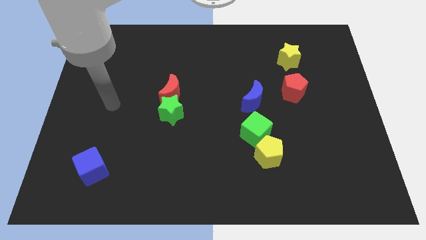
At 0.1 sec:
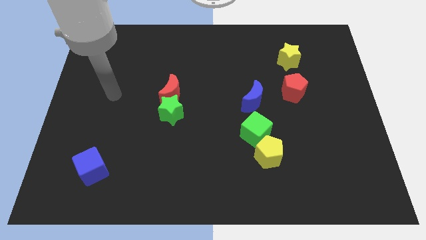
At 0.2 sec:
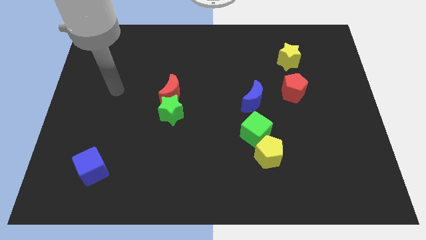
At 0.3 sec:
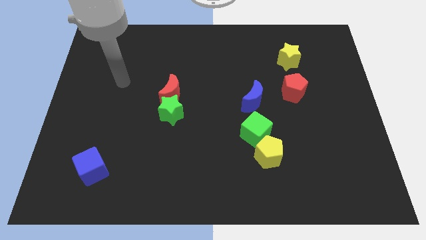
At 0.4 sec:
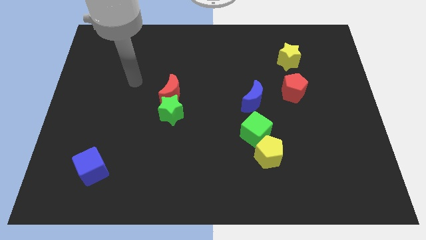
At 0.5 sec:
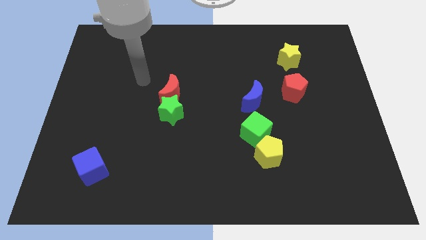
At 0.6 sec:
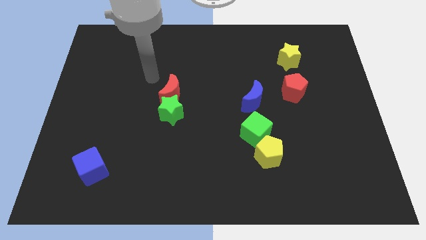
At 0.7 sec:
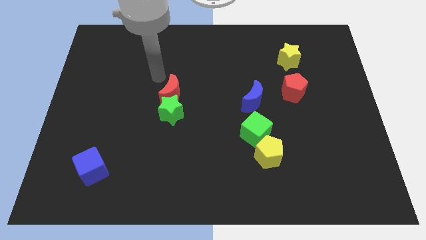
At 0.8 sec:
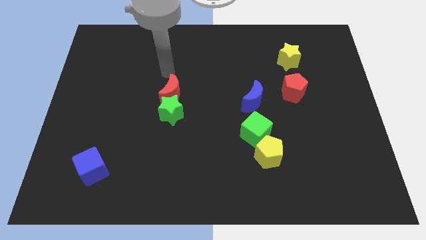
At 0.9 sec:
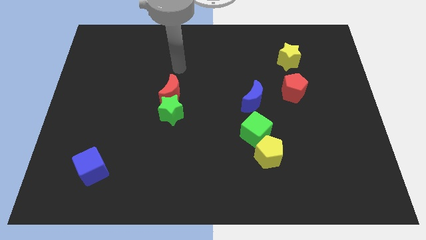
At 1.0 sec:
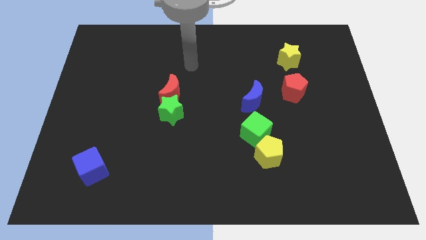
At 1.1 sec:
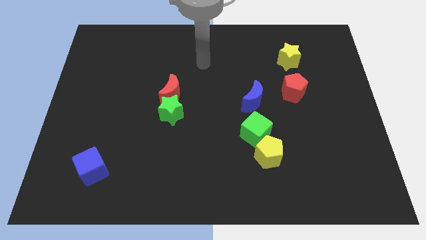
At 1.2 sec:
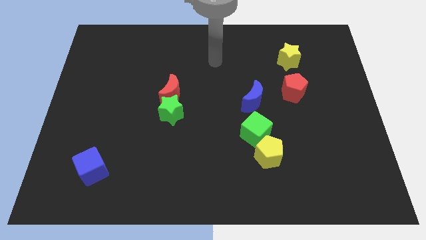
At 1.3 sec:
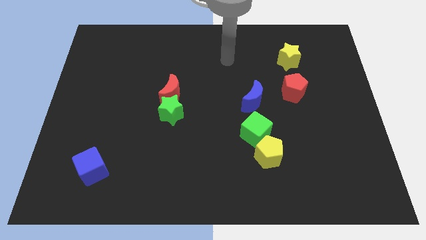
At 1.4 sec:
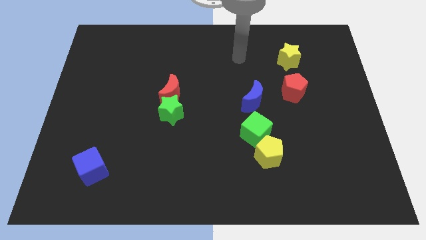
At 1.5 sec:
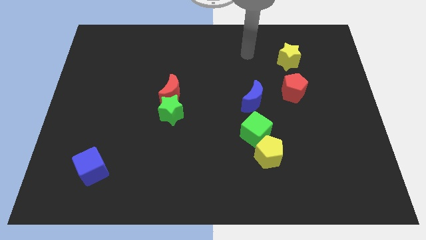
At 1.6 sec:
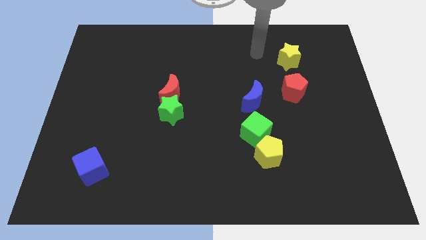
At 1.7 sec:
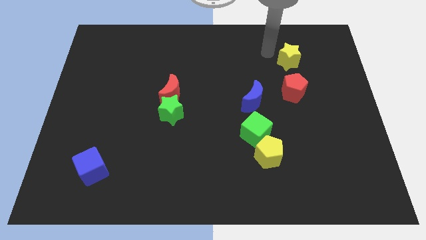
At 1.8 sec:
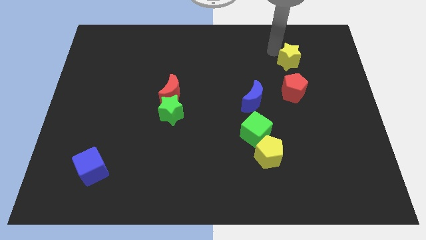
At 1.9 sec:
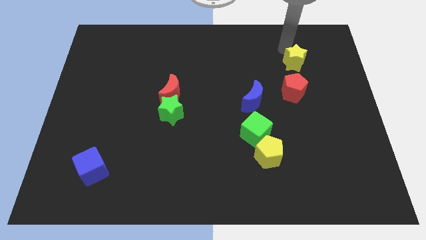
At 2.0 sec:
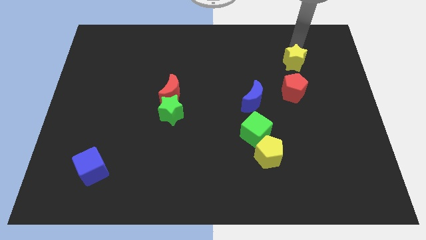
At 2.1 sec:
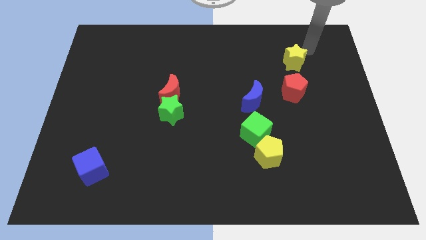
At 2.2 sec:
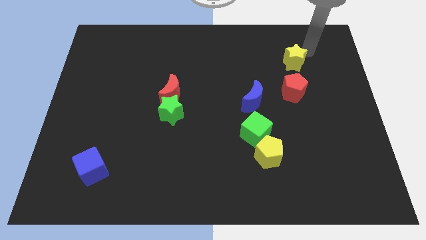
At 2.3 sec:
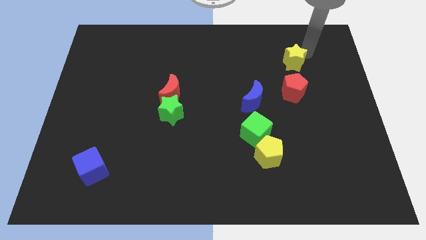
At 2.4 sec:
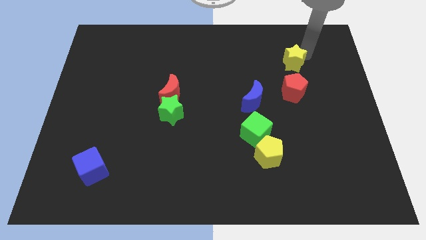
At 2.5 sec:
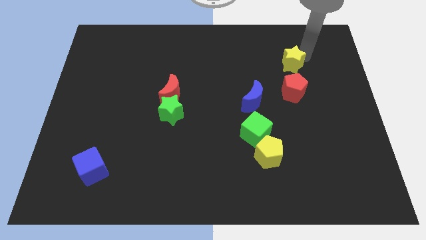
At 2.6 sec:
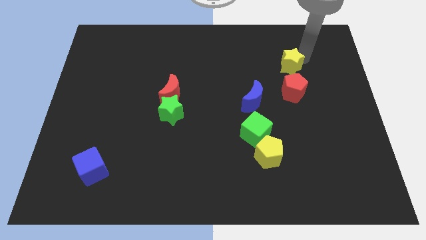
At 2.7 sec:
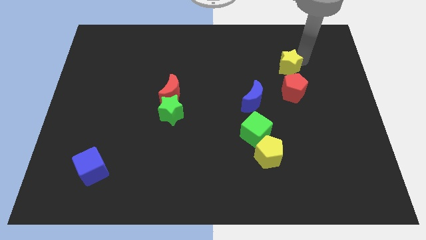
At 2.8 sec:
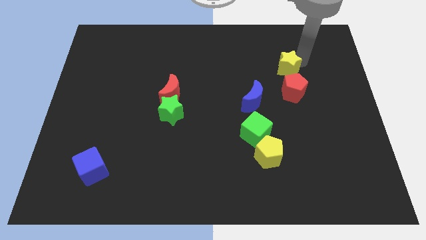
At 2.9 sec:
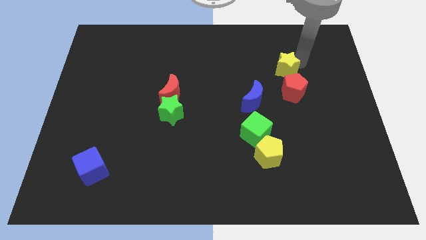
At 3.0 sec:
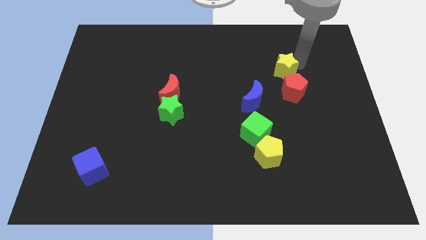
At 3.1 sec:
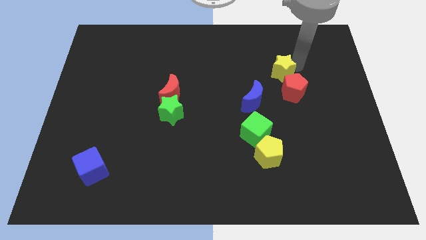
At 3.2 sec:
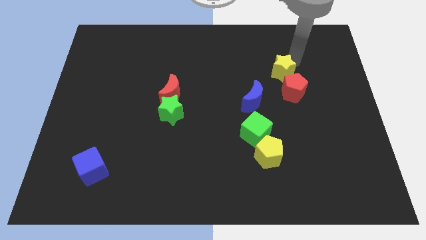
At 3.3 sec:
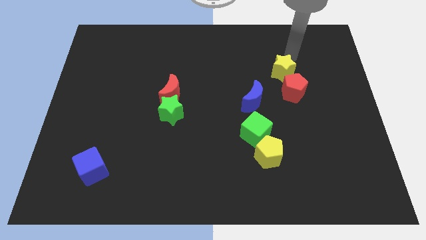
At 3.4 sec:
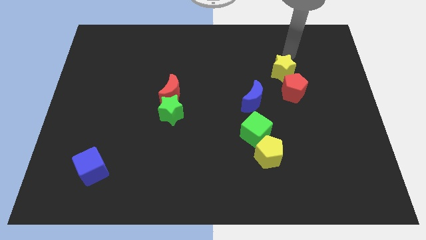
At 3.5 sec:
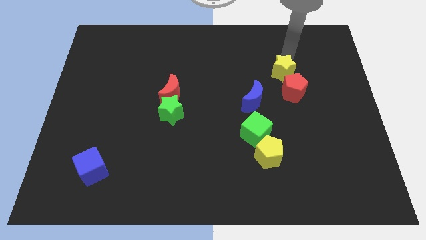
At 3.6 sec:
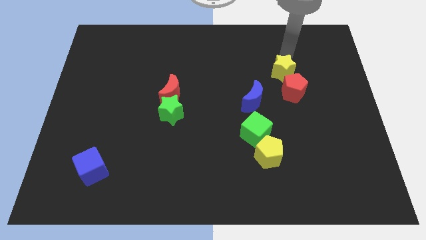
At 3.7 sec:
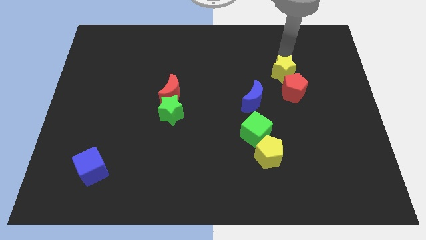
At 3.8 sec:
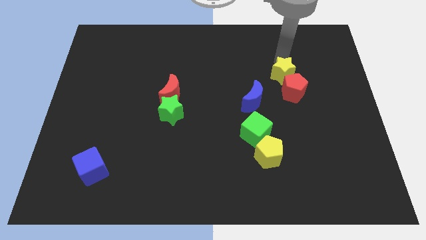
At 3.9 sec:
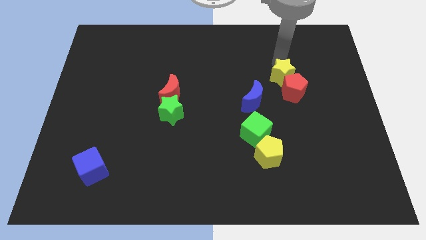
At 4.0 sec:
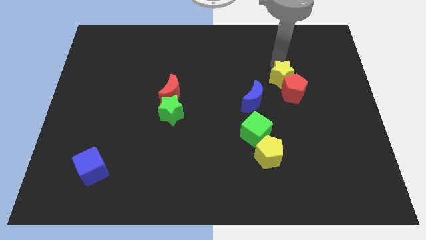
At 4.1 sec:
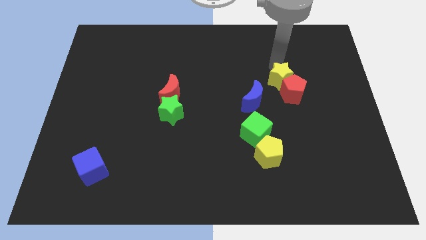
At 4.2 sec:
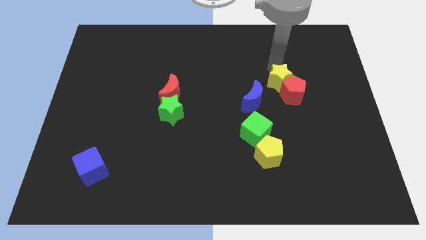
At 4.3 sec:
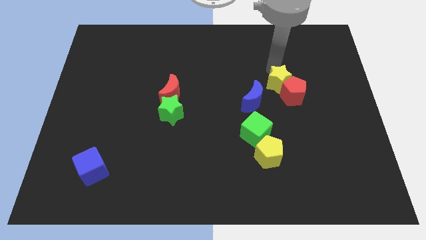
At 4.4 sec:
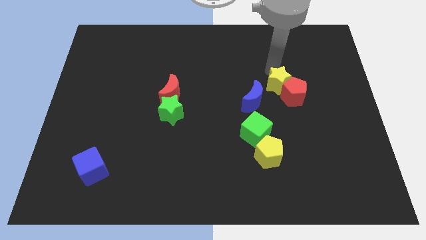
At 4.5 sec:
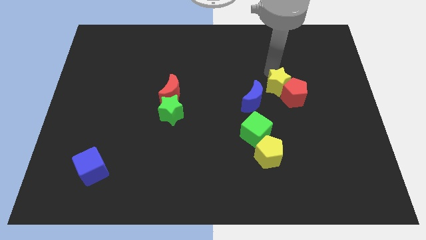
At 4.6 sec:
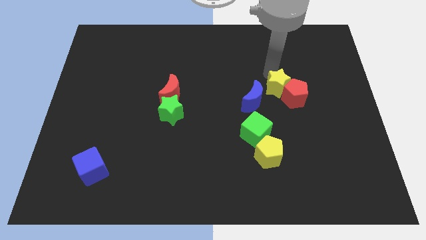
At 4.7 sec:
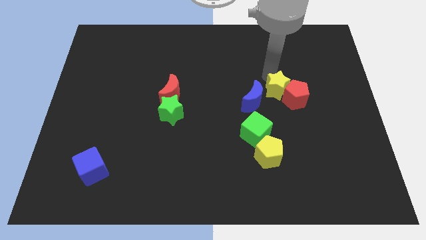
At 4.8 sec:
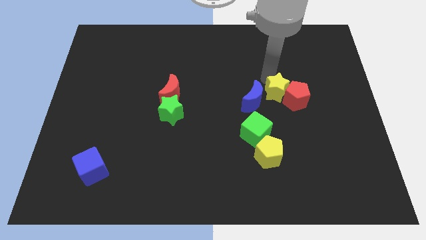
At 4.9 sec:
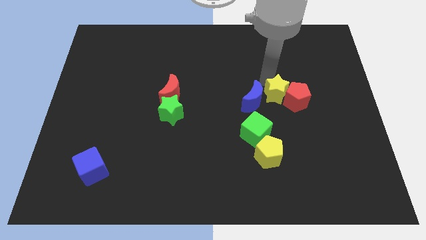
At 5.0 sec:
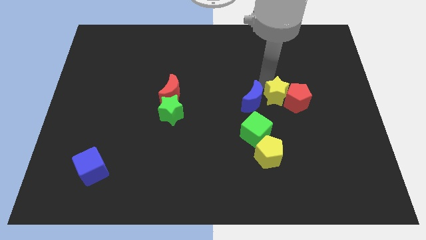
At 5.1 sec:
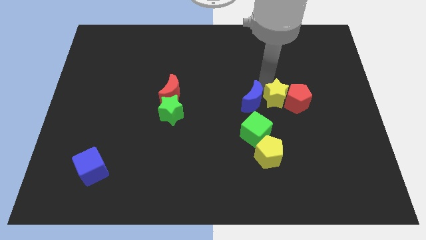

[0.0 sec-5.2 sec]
push the yellow star to the top right of the green cube

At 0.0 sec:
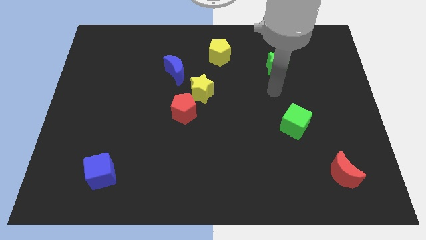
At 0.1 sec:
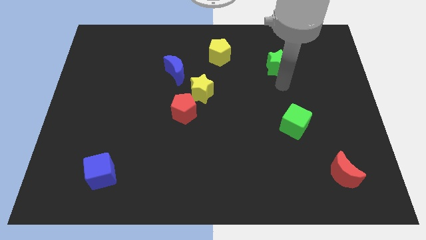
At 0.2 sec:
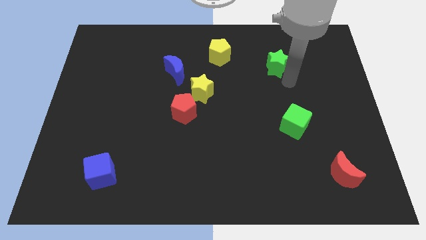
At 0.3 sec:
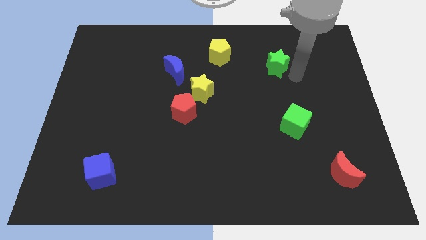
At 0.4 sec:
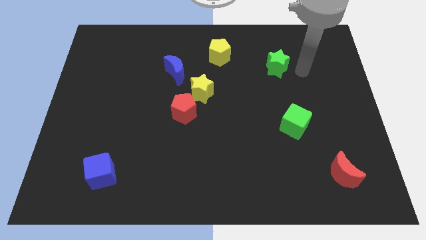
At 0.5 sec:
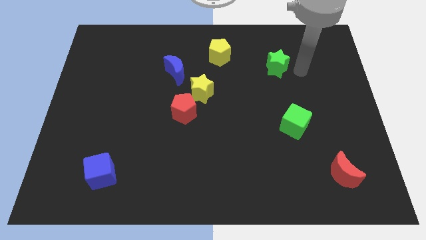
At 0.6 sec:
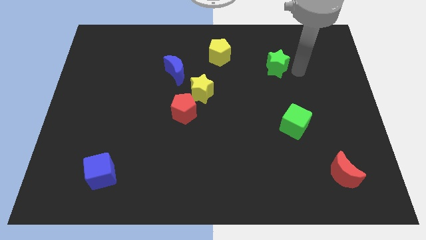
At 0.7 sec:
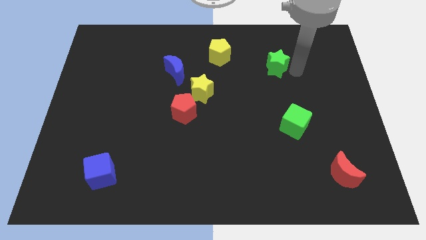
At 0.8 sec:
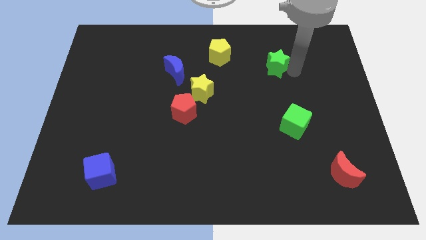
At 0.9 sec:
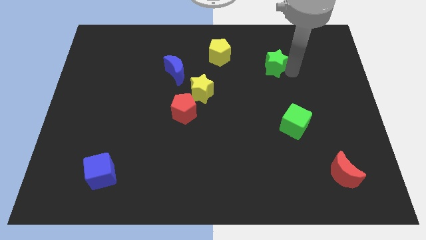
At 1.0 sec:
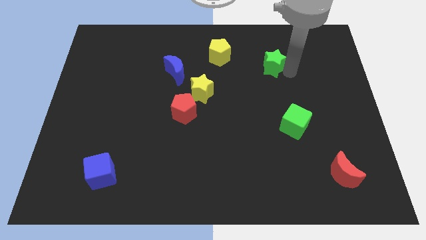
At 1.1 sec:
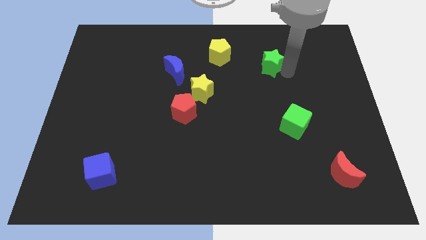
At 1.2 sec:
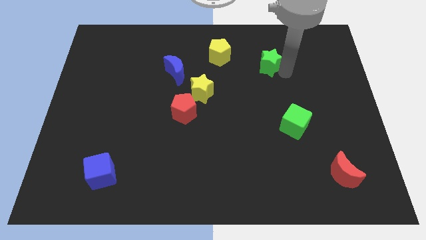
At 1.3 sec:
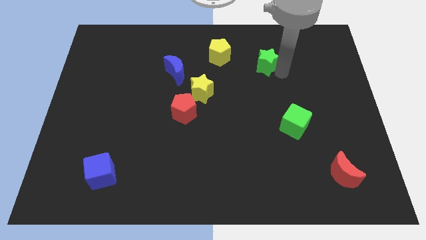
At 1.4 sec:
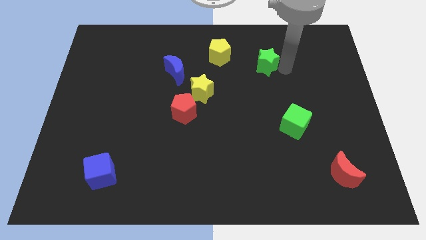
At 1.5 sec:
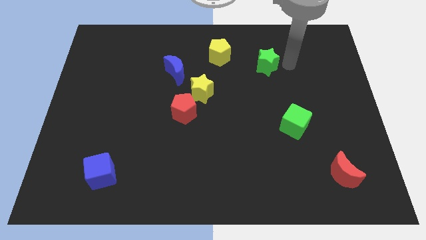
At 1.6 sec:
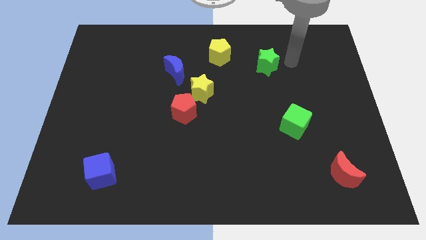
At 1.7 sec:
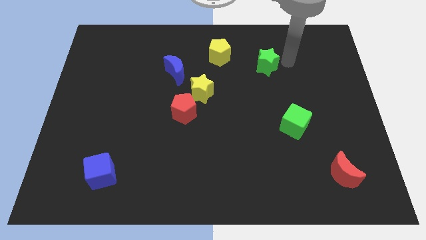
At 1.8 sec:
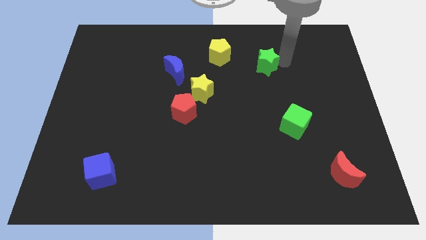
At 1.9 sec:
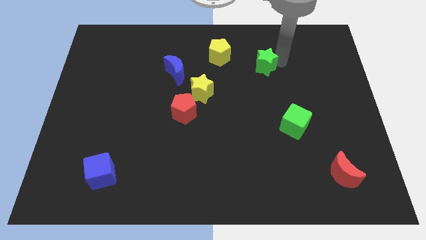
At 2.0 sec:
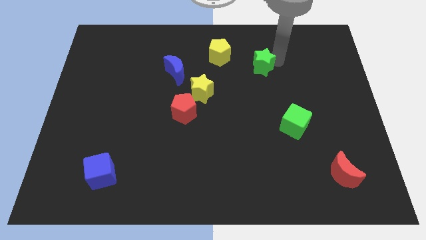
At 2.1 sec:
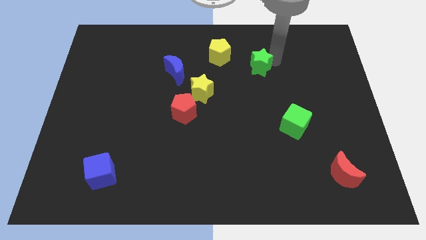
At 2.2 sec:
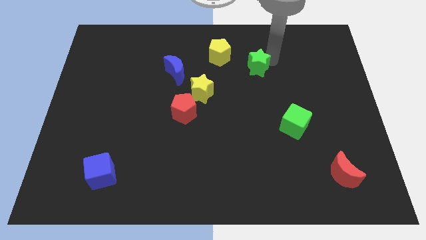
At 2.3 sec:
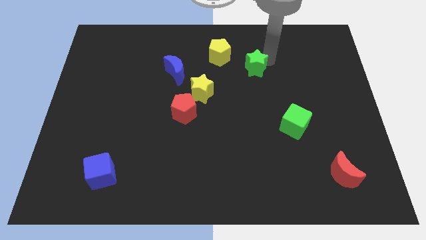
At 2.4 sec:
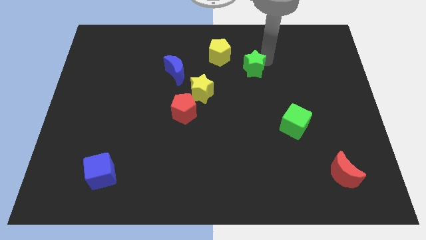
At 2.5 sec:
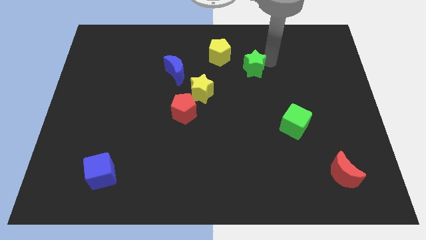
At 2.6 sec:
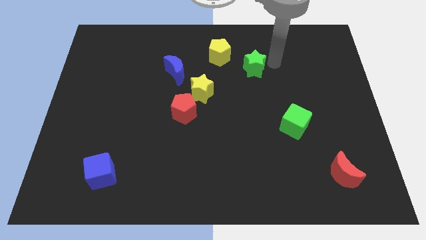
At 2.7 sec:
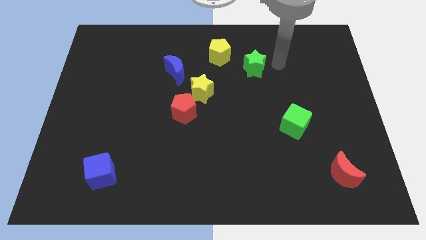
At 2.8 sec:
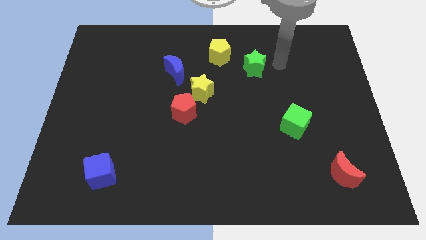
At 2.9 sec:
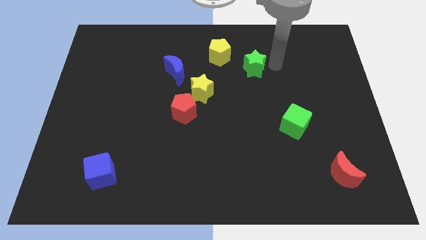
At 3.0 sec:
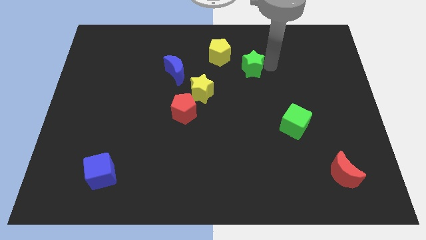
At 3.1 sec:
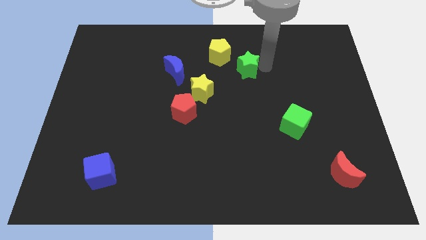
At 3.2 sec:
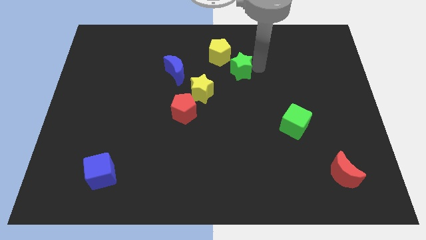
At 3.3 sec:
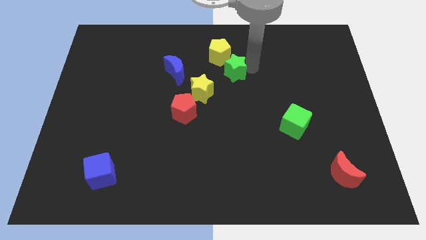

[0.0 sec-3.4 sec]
move the green star to the top right of the yellow star
